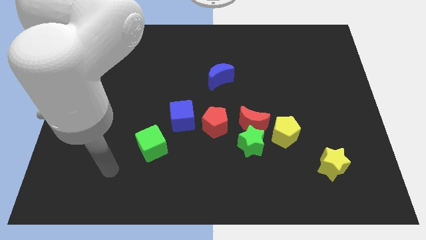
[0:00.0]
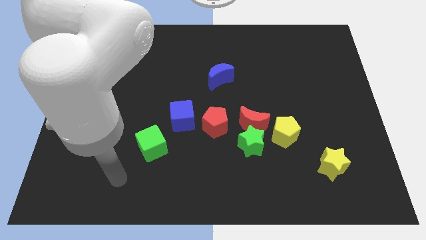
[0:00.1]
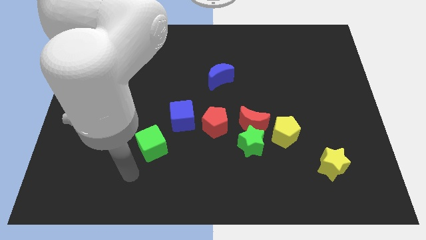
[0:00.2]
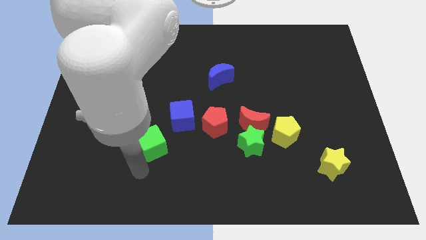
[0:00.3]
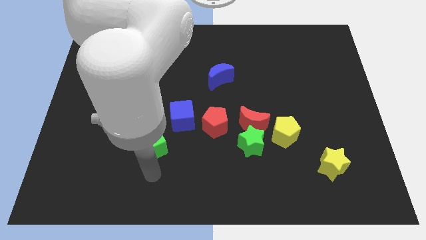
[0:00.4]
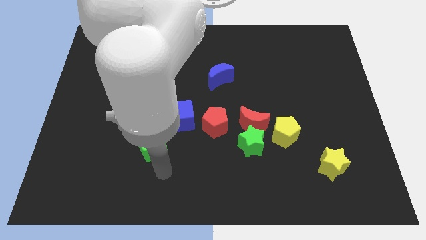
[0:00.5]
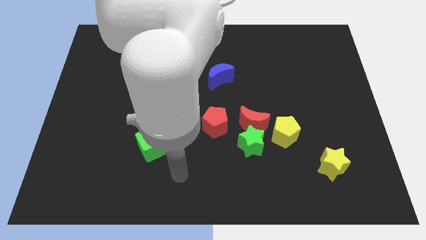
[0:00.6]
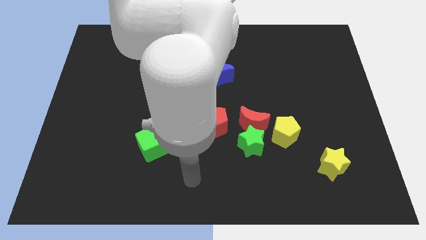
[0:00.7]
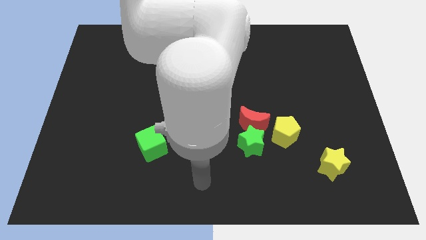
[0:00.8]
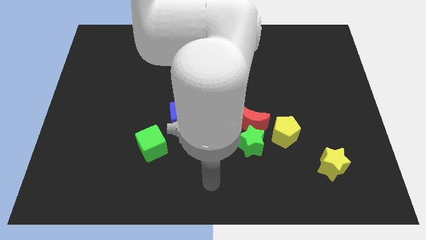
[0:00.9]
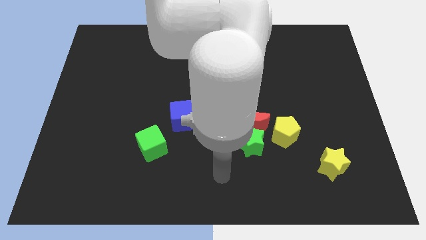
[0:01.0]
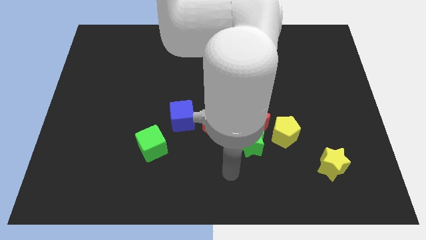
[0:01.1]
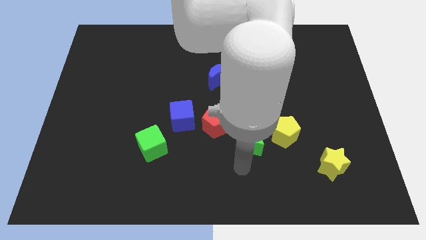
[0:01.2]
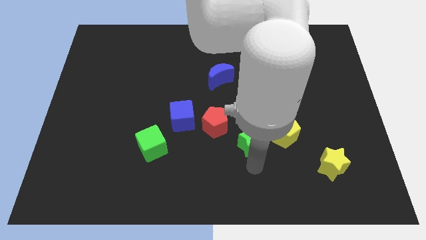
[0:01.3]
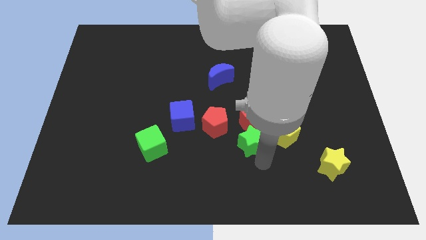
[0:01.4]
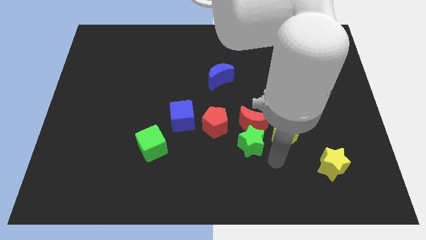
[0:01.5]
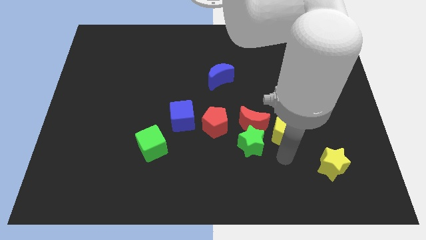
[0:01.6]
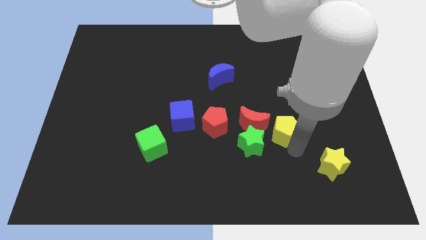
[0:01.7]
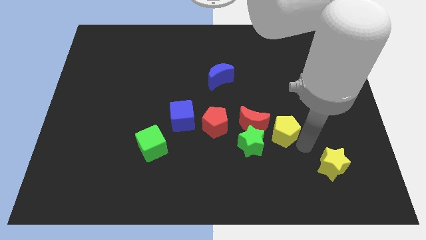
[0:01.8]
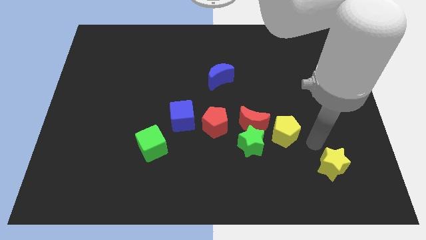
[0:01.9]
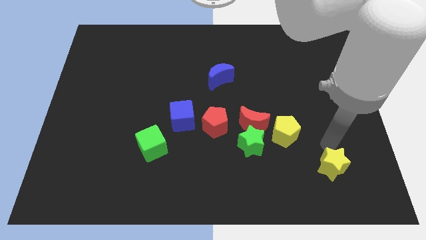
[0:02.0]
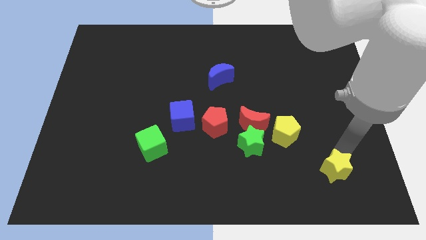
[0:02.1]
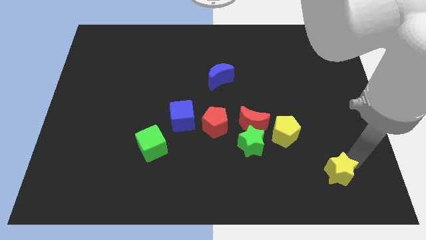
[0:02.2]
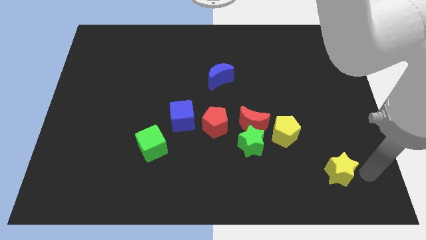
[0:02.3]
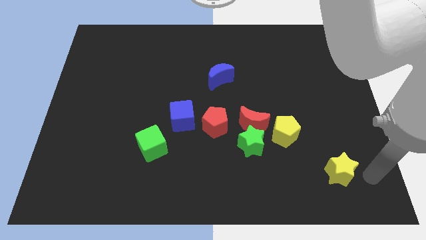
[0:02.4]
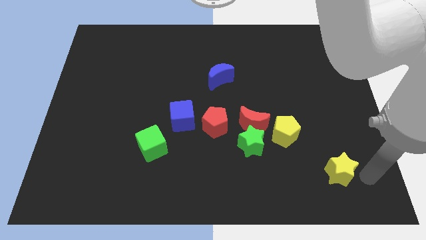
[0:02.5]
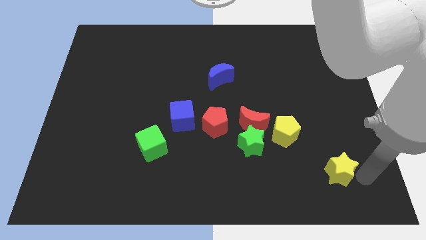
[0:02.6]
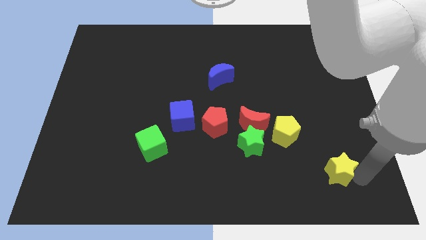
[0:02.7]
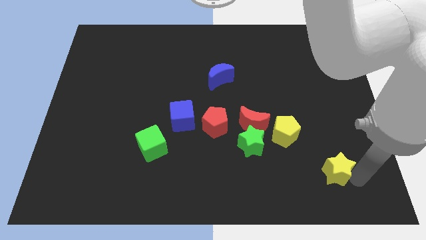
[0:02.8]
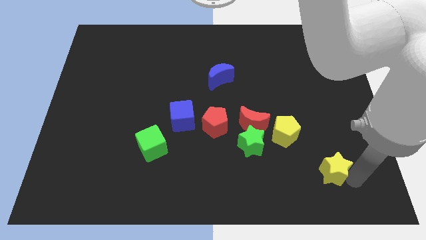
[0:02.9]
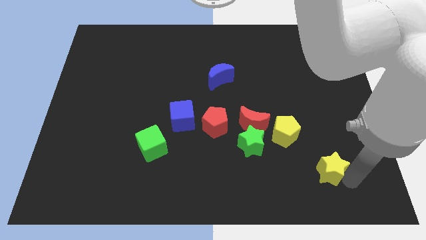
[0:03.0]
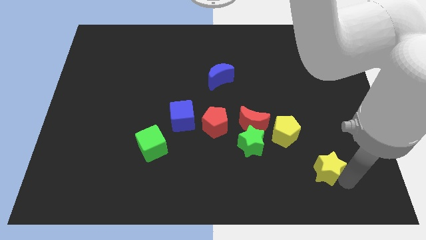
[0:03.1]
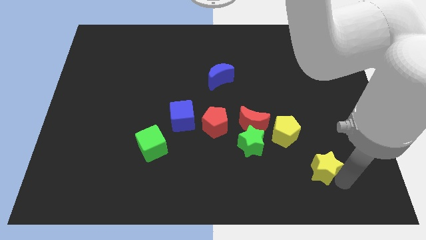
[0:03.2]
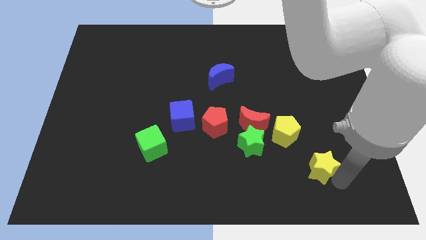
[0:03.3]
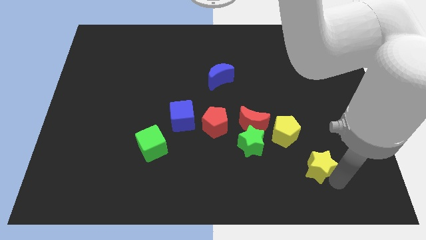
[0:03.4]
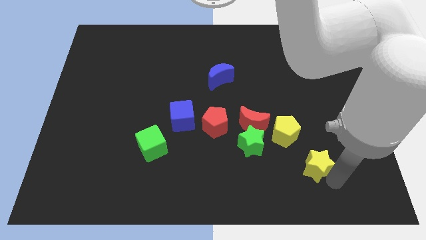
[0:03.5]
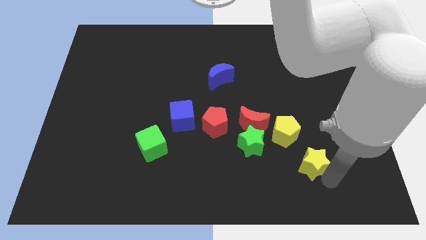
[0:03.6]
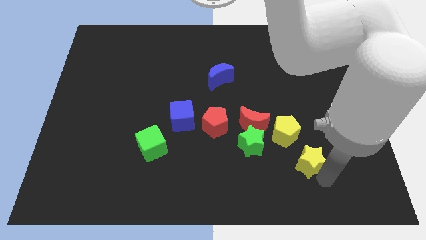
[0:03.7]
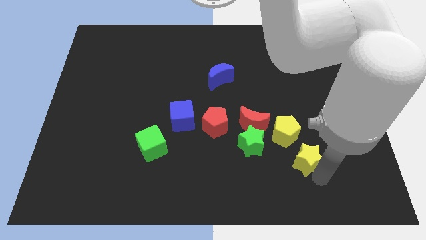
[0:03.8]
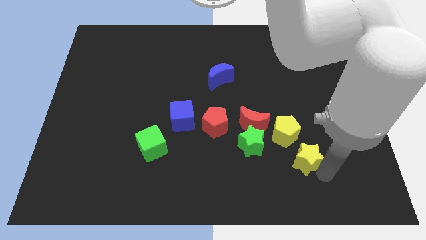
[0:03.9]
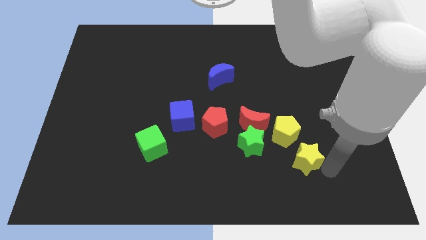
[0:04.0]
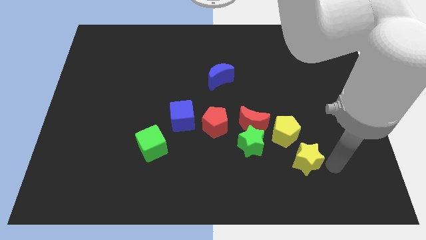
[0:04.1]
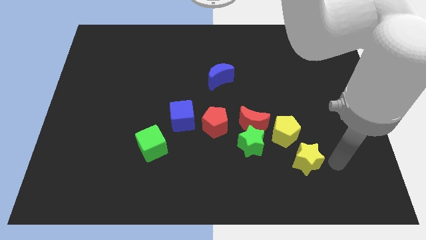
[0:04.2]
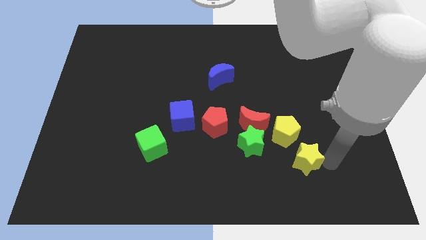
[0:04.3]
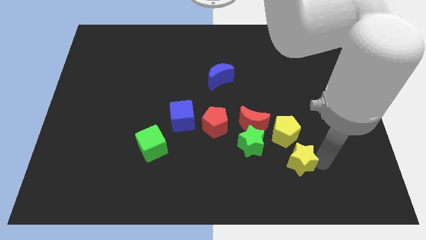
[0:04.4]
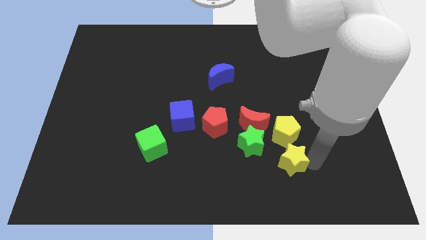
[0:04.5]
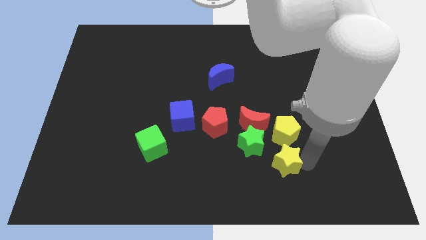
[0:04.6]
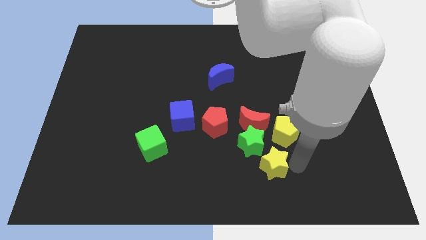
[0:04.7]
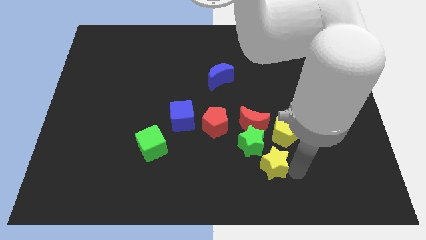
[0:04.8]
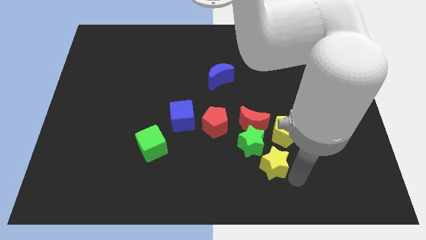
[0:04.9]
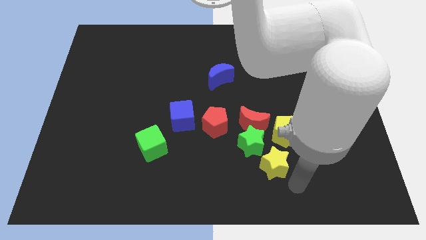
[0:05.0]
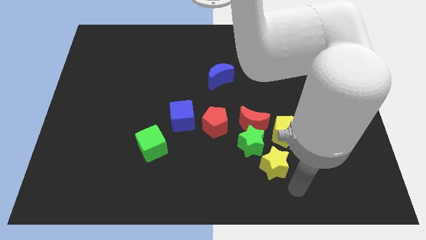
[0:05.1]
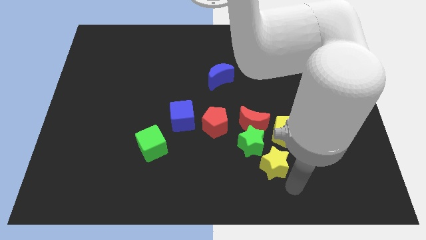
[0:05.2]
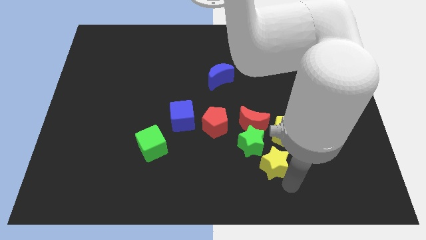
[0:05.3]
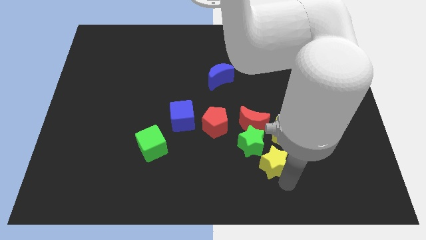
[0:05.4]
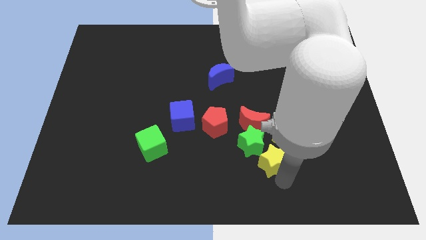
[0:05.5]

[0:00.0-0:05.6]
move the yellow star to the green star

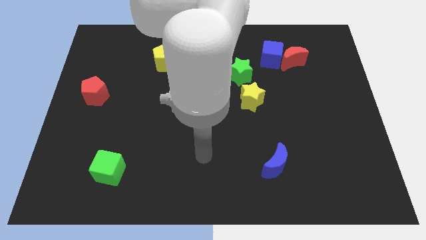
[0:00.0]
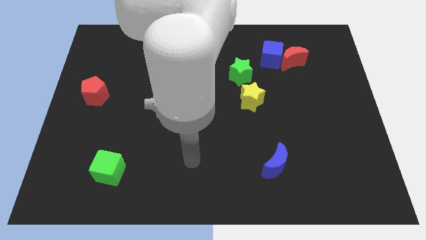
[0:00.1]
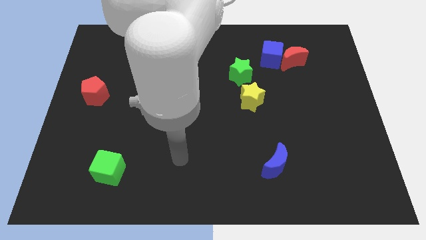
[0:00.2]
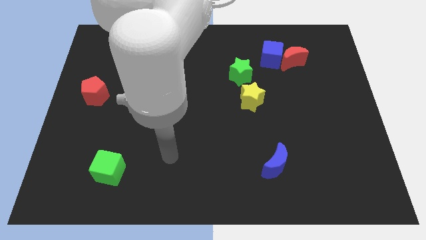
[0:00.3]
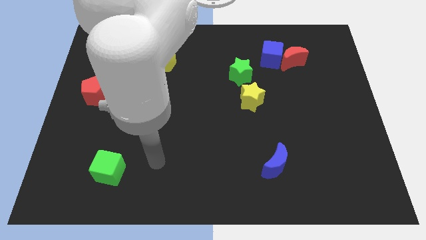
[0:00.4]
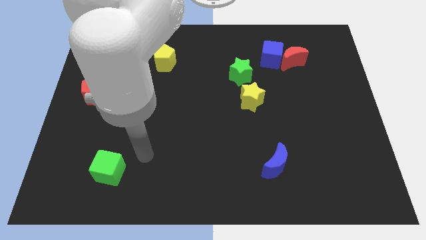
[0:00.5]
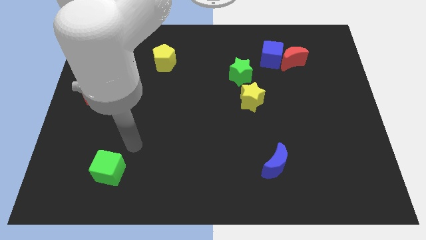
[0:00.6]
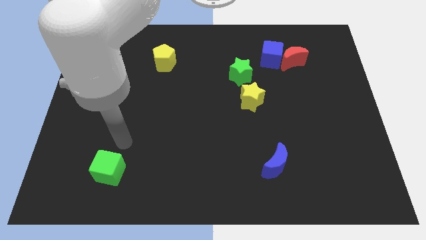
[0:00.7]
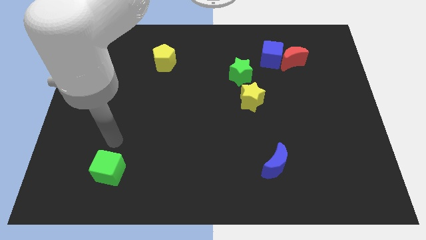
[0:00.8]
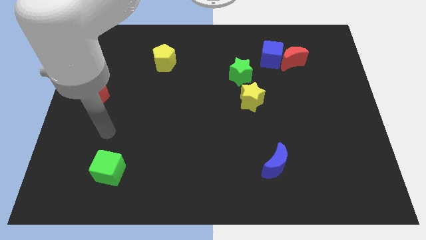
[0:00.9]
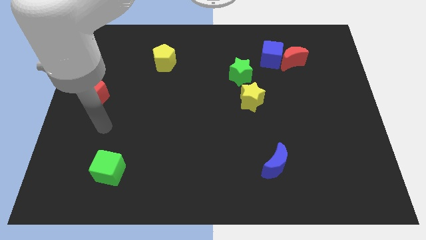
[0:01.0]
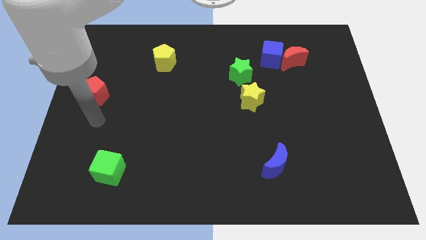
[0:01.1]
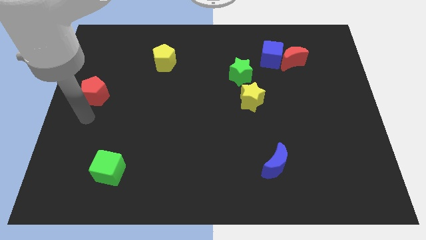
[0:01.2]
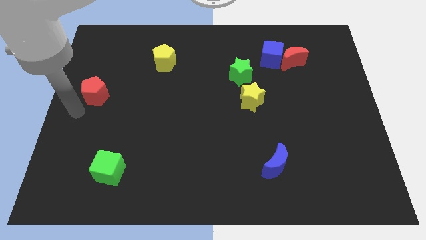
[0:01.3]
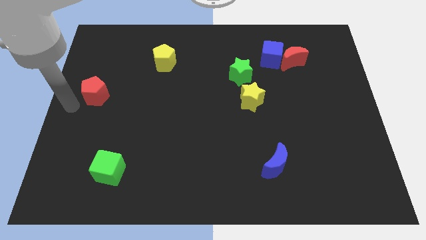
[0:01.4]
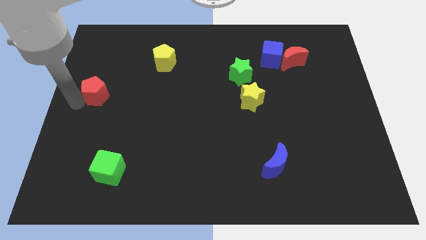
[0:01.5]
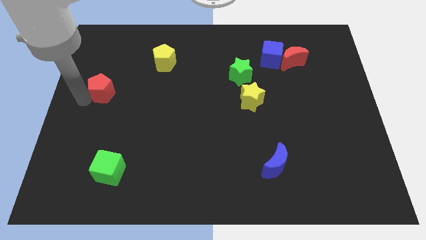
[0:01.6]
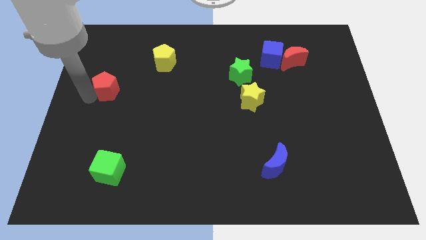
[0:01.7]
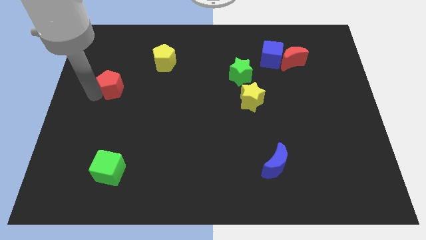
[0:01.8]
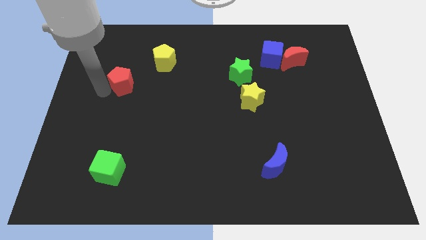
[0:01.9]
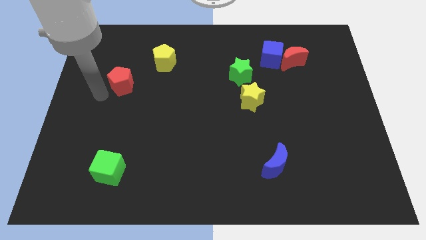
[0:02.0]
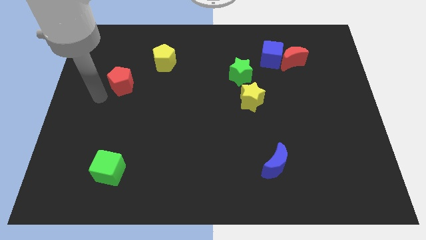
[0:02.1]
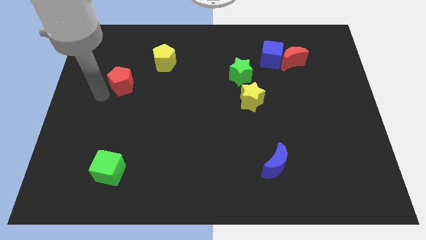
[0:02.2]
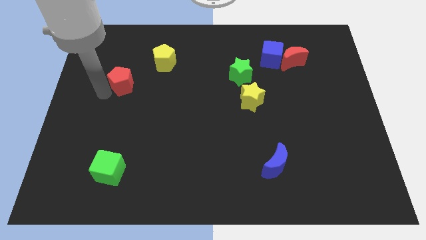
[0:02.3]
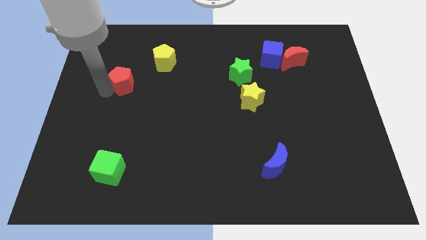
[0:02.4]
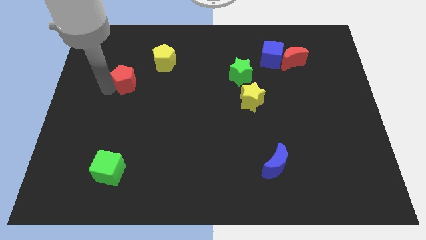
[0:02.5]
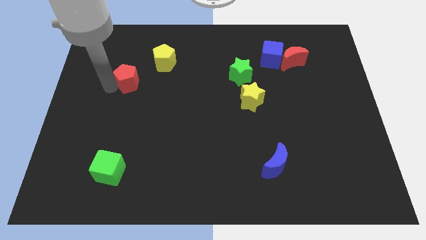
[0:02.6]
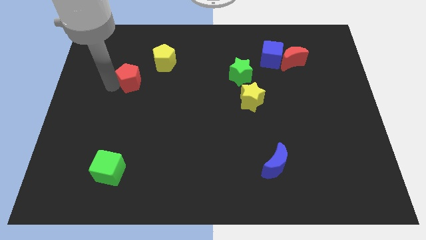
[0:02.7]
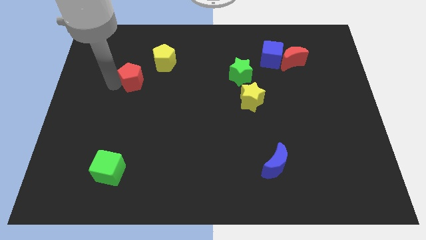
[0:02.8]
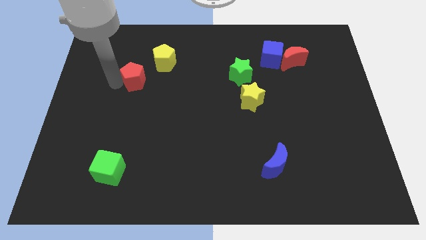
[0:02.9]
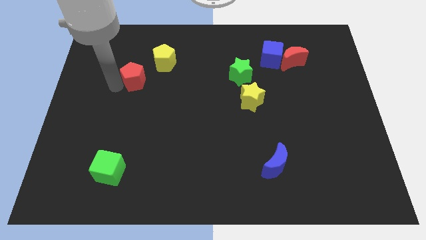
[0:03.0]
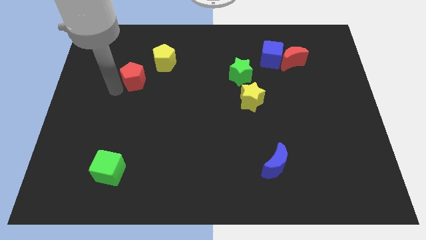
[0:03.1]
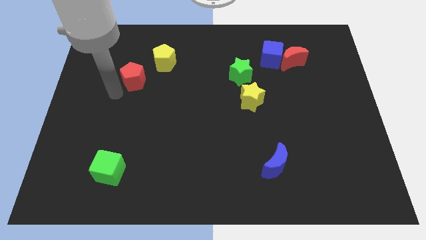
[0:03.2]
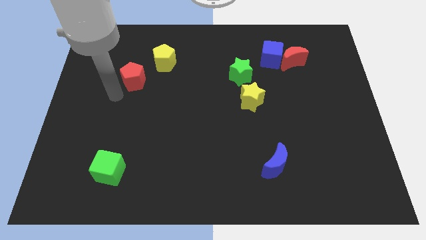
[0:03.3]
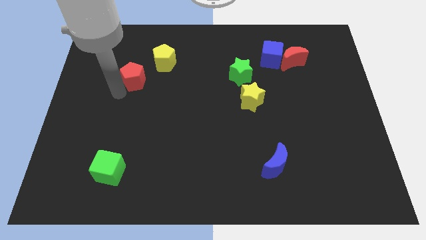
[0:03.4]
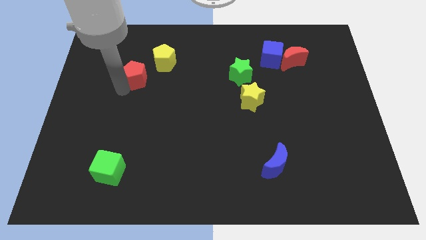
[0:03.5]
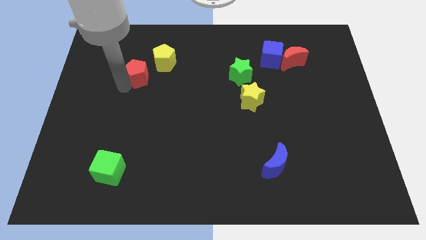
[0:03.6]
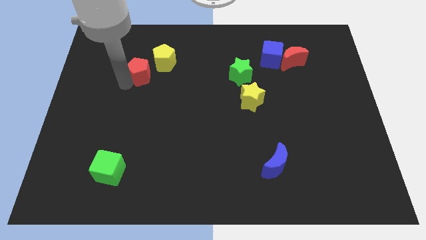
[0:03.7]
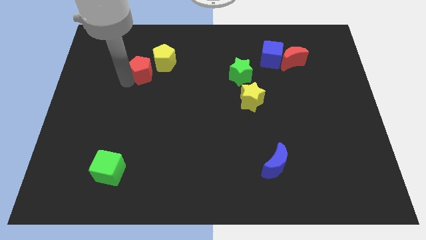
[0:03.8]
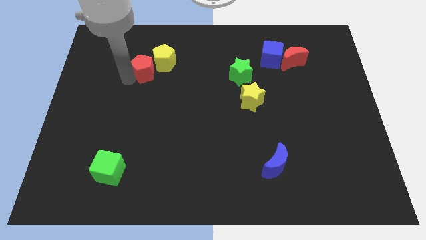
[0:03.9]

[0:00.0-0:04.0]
move the red pentagon next to the yellow pentagon
